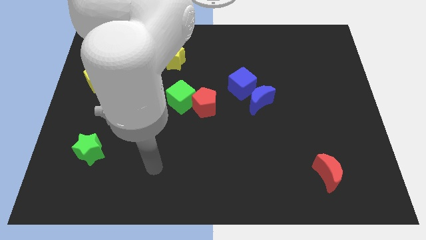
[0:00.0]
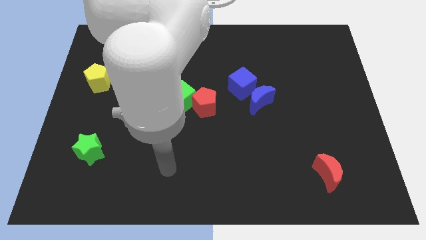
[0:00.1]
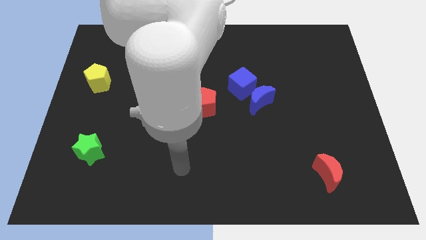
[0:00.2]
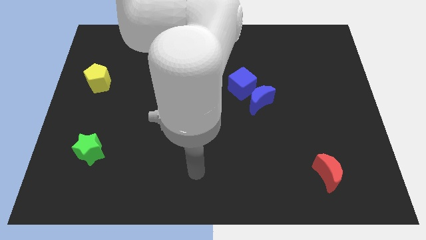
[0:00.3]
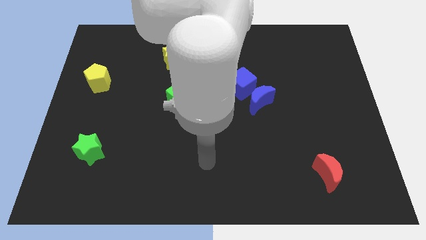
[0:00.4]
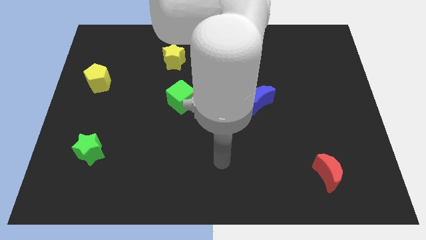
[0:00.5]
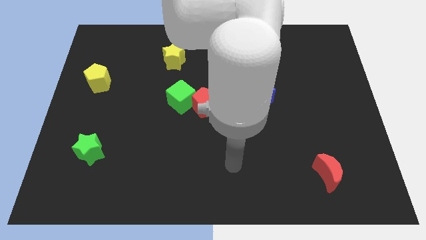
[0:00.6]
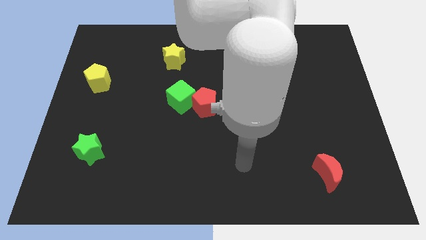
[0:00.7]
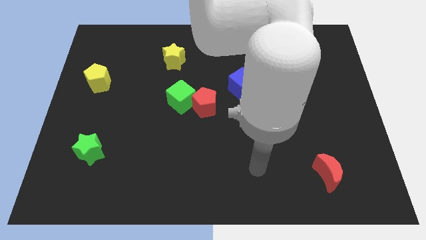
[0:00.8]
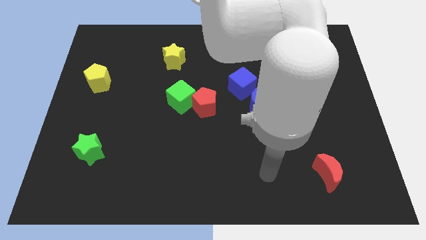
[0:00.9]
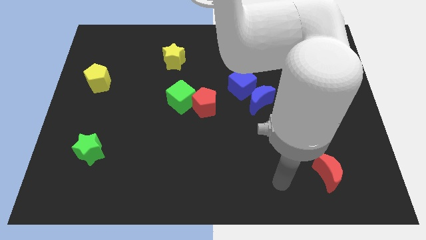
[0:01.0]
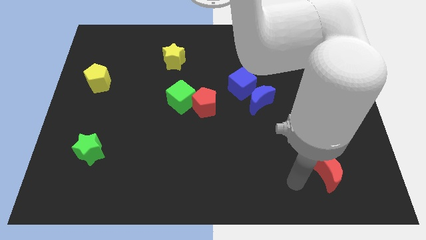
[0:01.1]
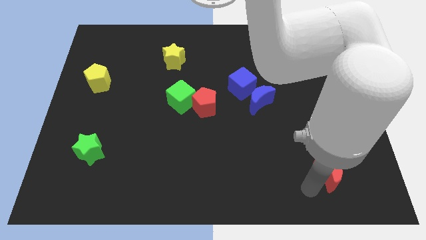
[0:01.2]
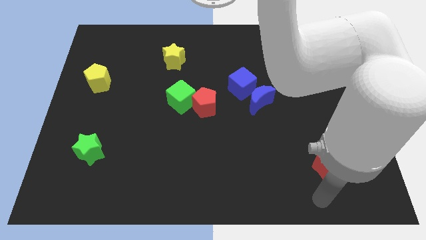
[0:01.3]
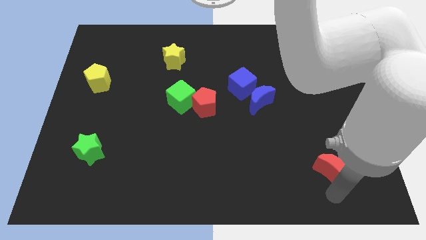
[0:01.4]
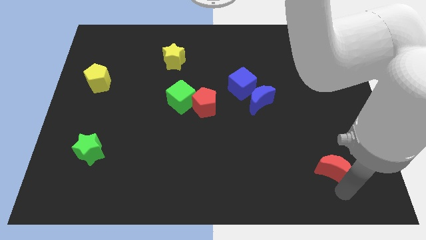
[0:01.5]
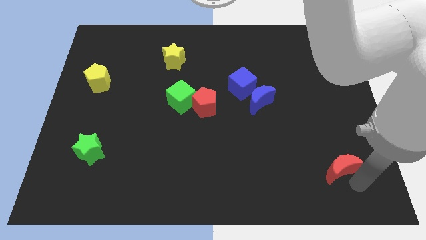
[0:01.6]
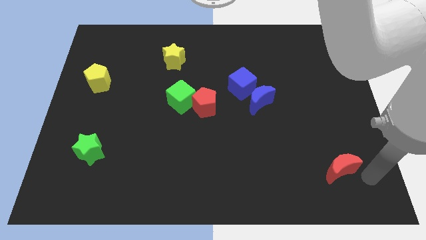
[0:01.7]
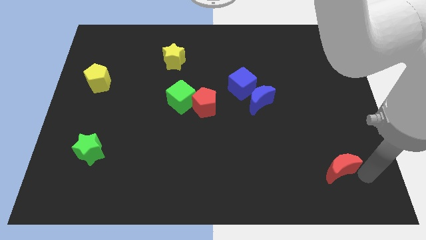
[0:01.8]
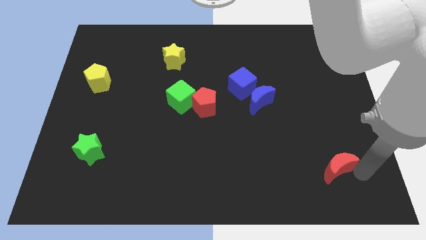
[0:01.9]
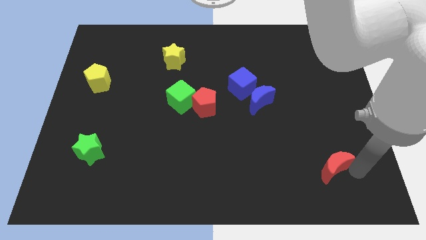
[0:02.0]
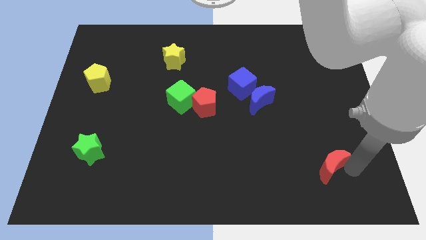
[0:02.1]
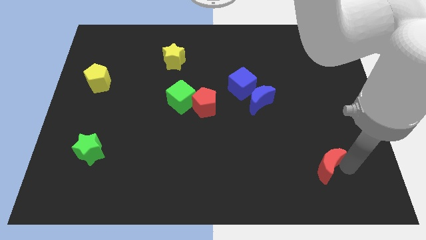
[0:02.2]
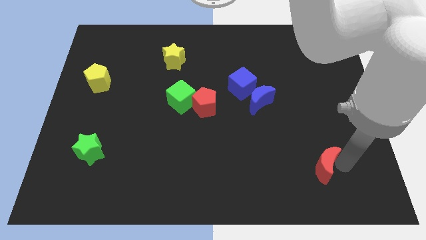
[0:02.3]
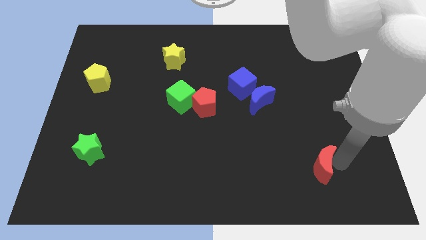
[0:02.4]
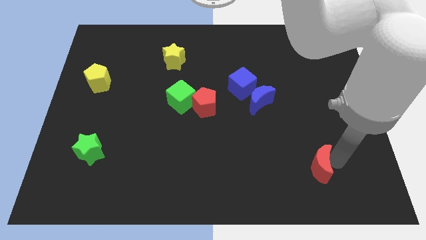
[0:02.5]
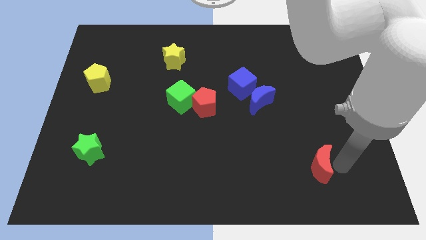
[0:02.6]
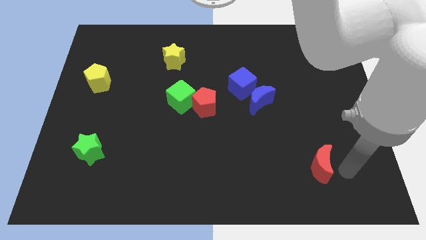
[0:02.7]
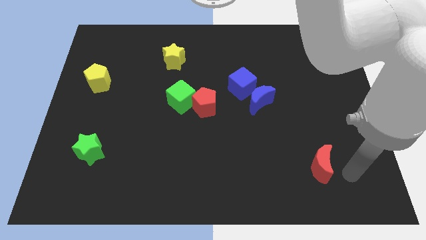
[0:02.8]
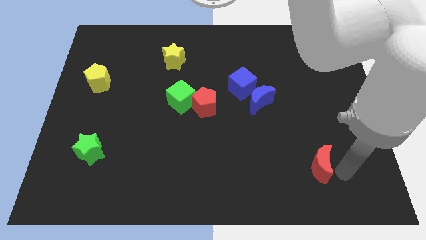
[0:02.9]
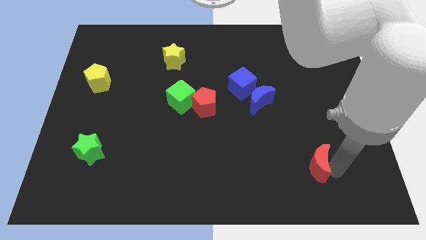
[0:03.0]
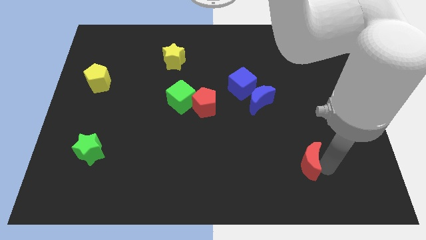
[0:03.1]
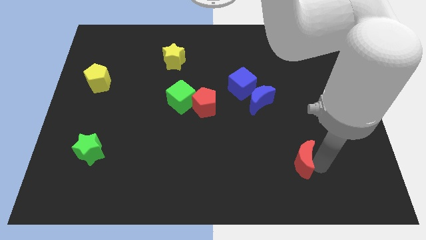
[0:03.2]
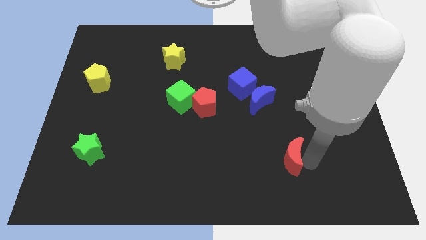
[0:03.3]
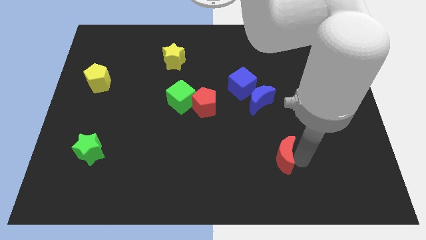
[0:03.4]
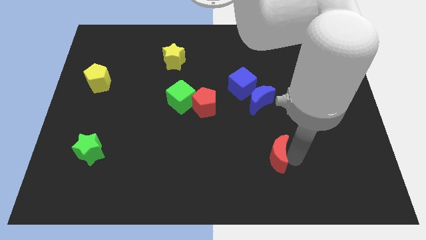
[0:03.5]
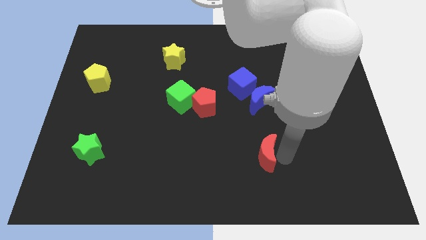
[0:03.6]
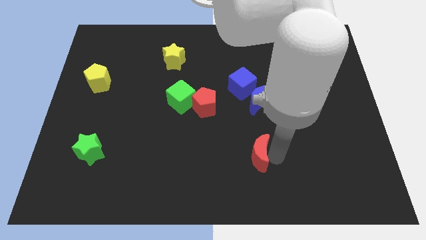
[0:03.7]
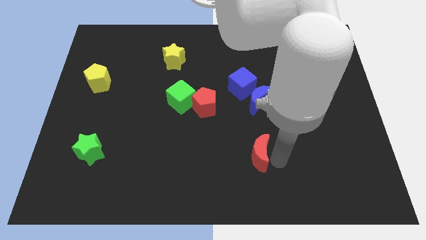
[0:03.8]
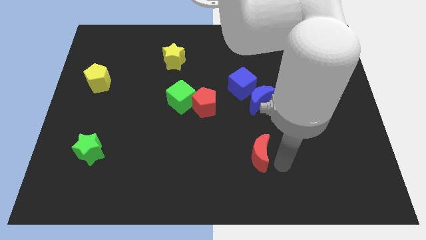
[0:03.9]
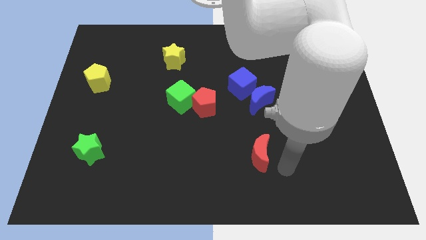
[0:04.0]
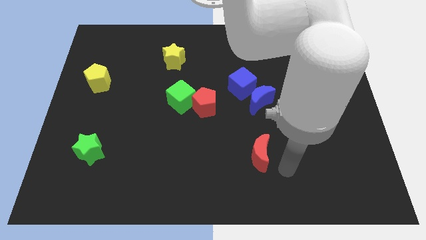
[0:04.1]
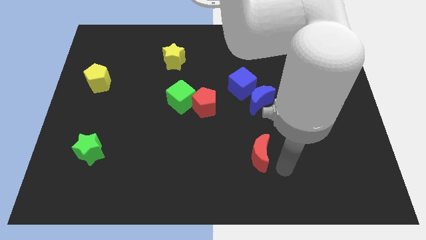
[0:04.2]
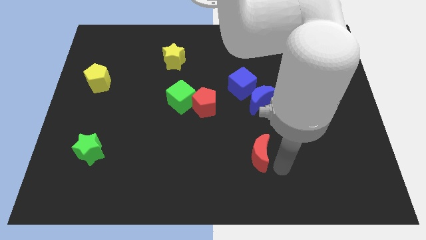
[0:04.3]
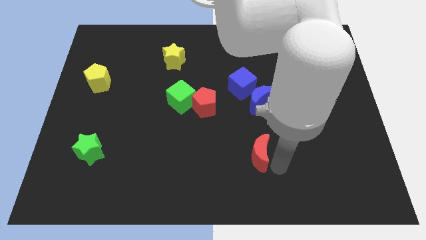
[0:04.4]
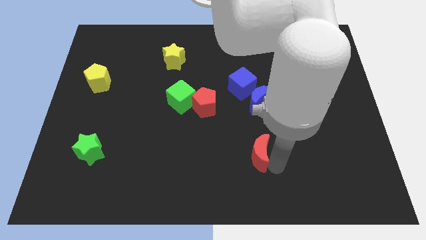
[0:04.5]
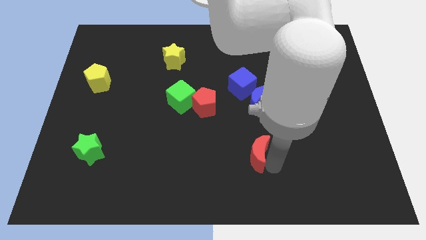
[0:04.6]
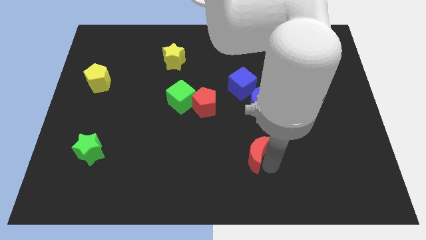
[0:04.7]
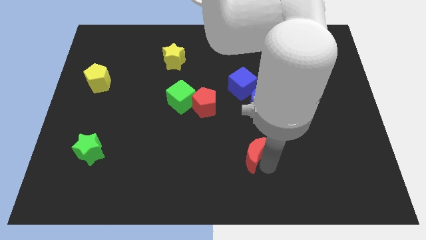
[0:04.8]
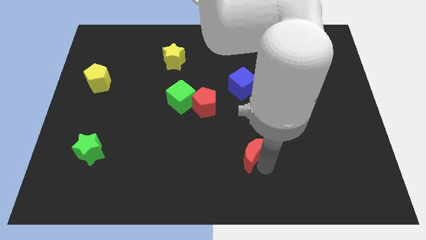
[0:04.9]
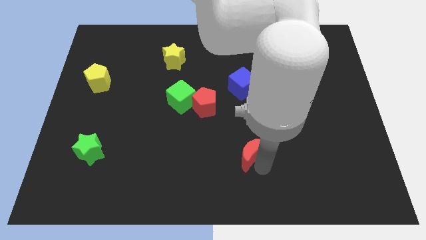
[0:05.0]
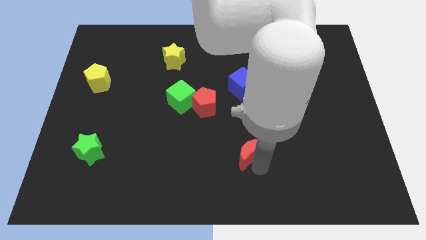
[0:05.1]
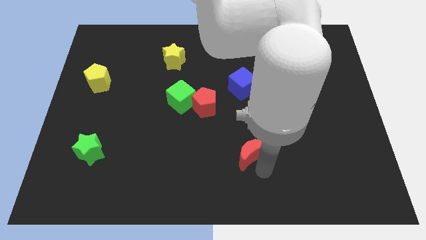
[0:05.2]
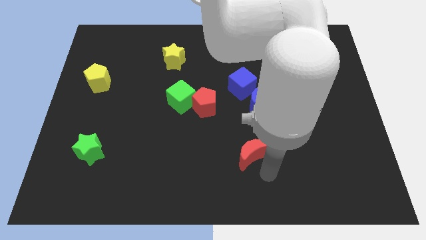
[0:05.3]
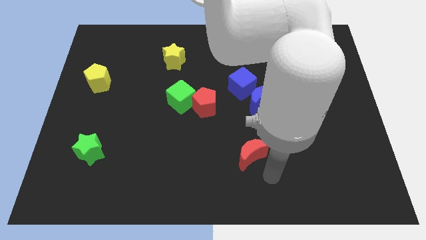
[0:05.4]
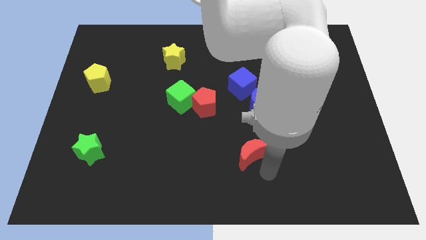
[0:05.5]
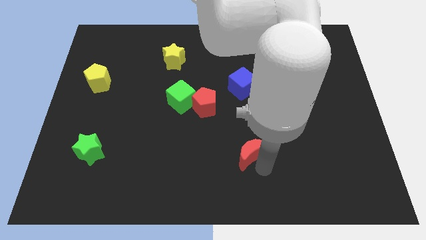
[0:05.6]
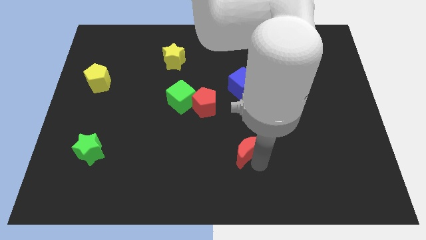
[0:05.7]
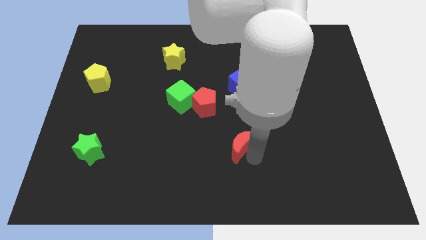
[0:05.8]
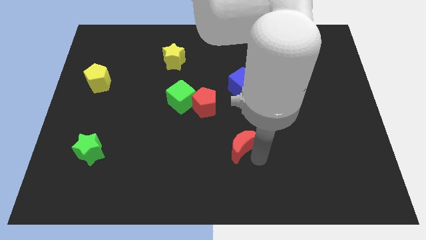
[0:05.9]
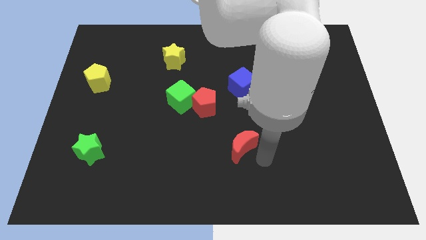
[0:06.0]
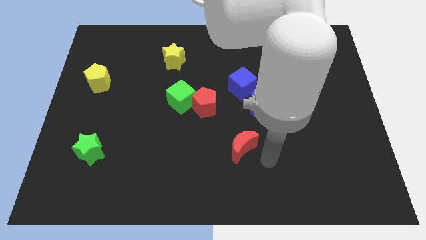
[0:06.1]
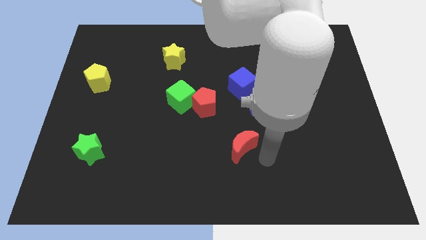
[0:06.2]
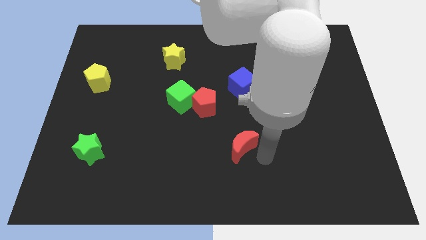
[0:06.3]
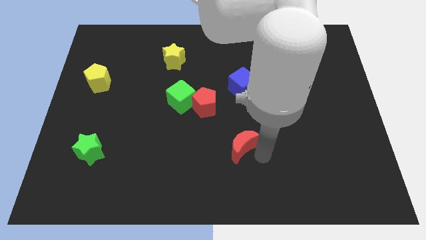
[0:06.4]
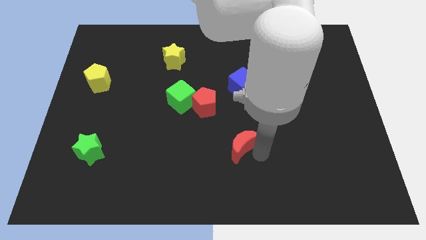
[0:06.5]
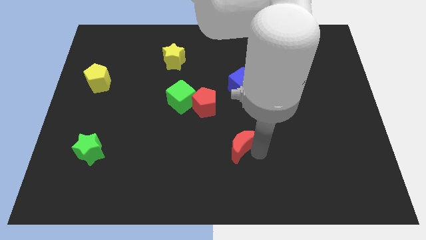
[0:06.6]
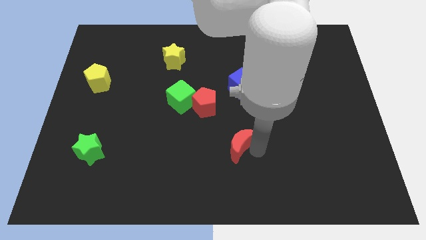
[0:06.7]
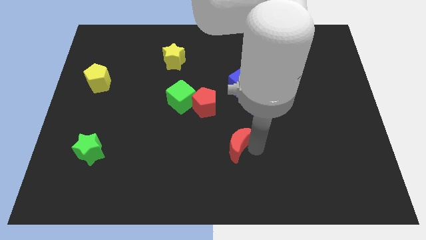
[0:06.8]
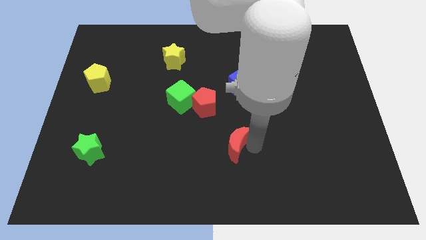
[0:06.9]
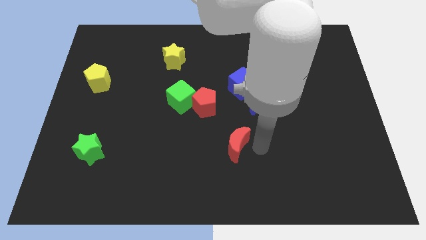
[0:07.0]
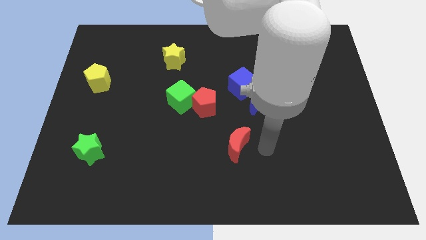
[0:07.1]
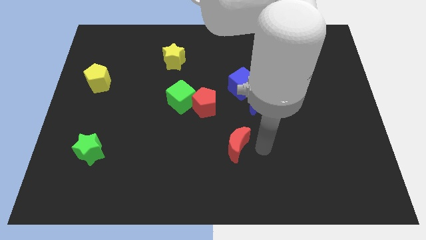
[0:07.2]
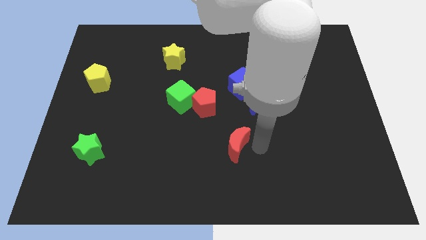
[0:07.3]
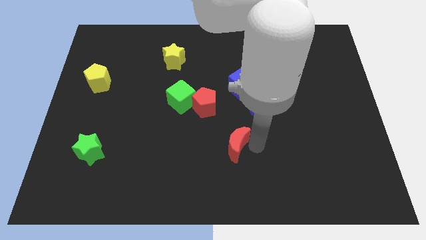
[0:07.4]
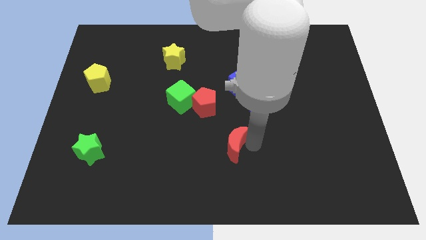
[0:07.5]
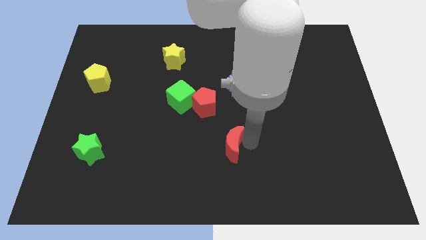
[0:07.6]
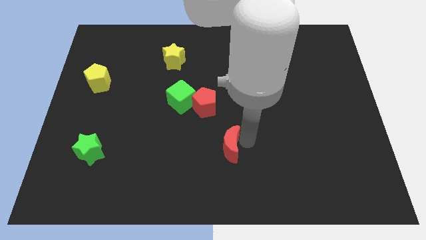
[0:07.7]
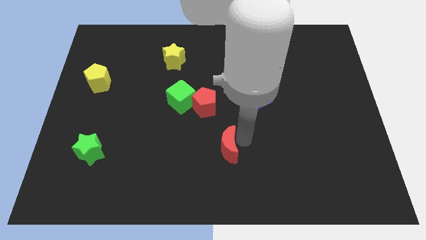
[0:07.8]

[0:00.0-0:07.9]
push the red moon to the bottom side of the red pentagon
